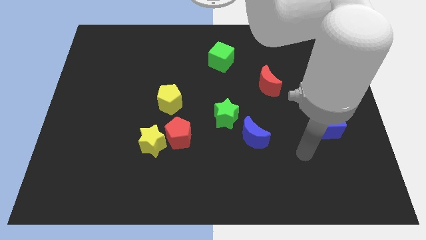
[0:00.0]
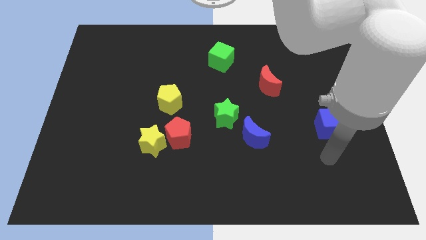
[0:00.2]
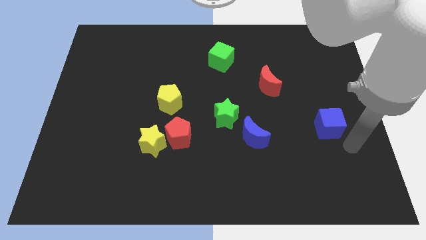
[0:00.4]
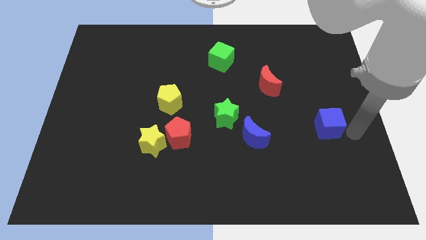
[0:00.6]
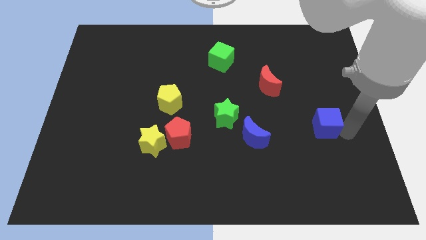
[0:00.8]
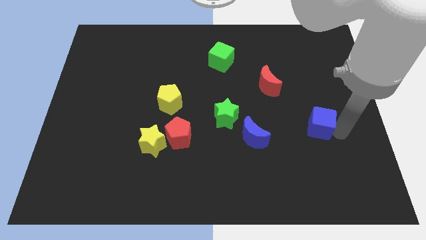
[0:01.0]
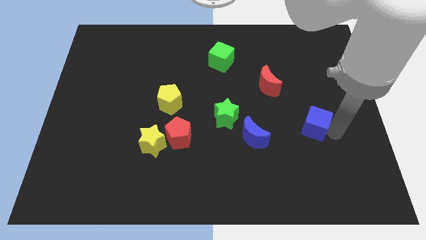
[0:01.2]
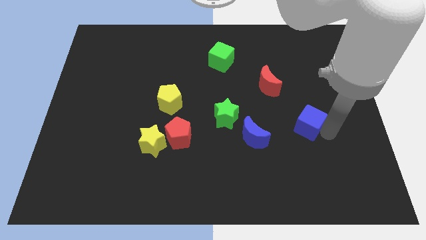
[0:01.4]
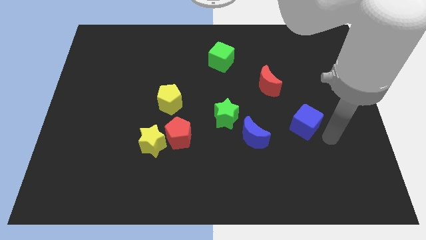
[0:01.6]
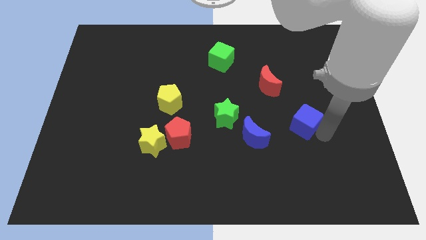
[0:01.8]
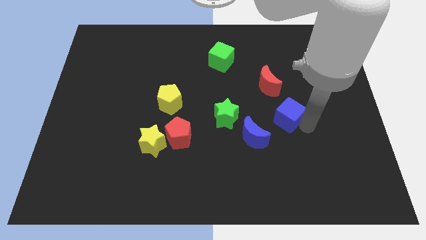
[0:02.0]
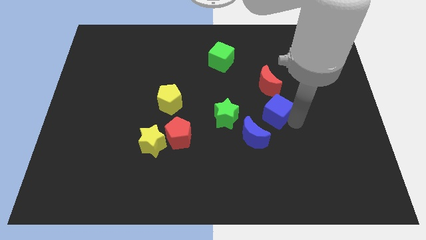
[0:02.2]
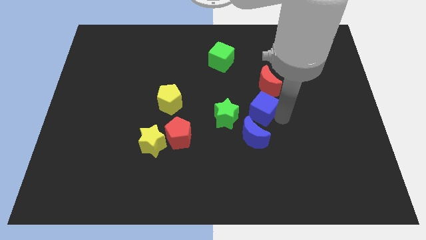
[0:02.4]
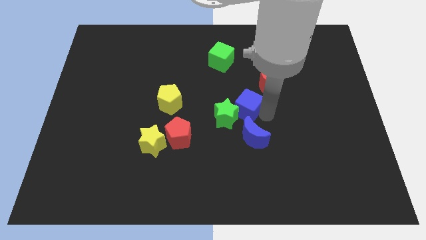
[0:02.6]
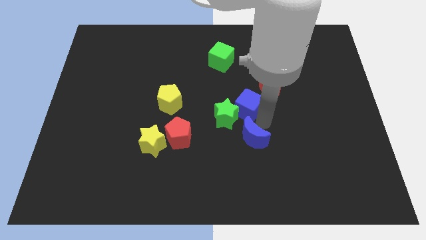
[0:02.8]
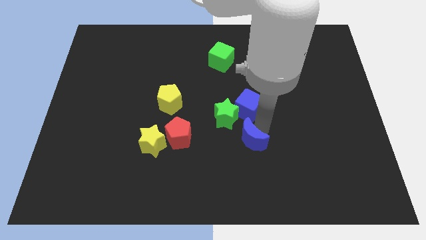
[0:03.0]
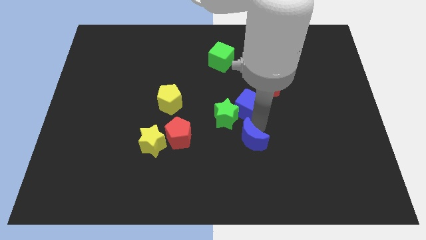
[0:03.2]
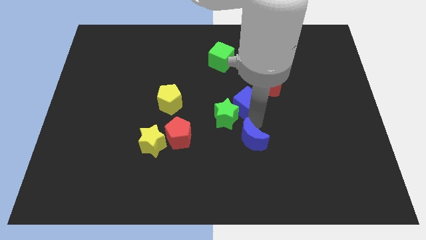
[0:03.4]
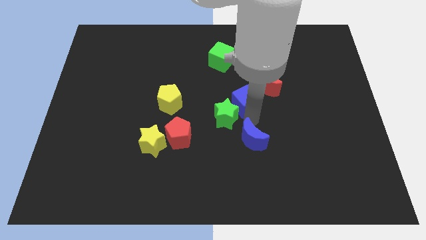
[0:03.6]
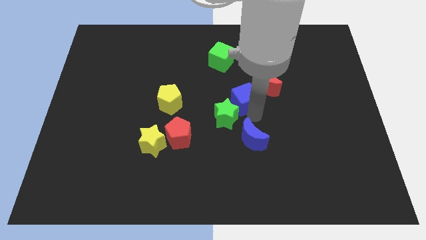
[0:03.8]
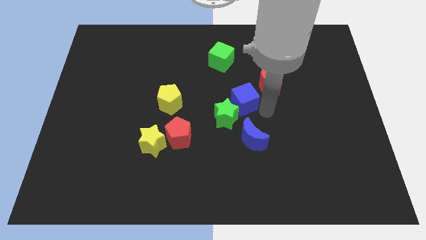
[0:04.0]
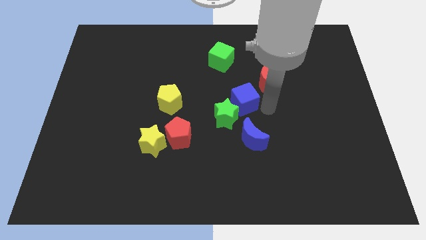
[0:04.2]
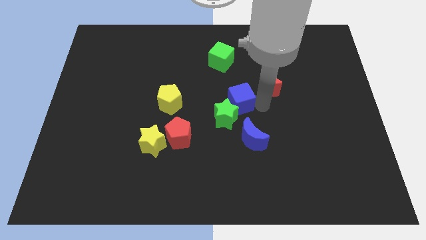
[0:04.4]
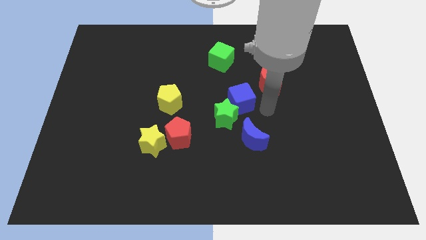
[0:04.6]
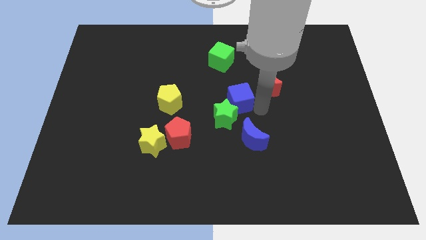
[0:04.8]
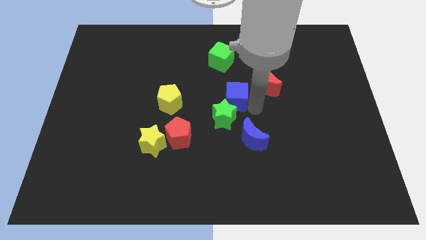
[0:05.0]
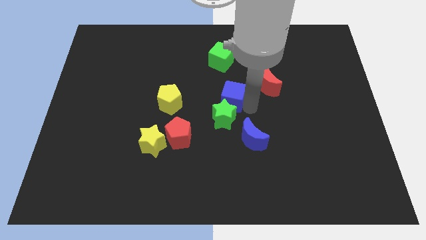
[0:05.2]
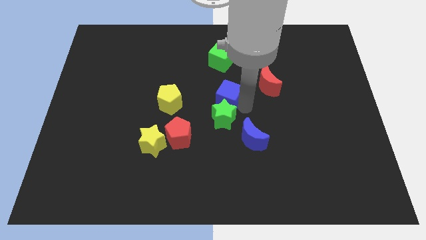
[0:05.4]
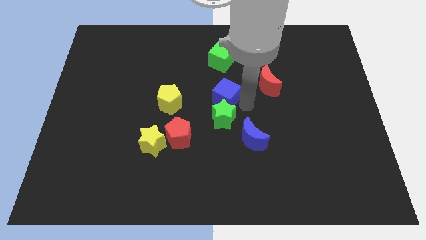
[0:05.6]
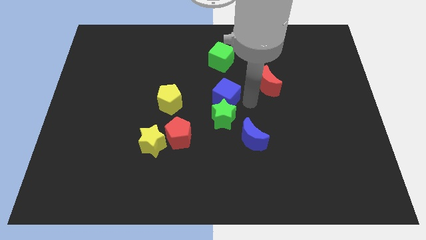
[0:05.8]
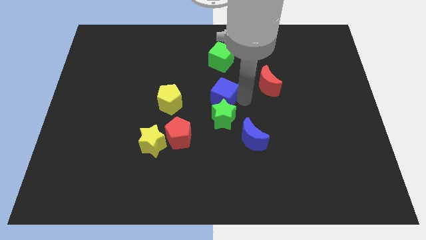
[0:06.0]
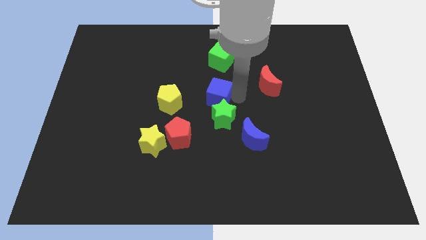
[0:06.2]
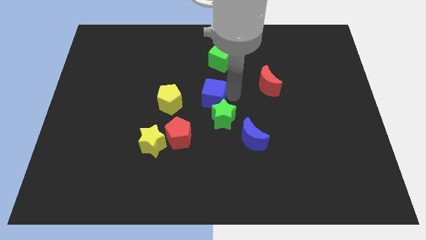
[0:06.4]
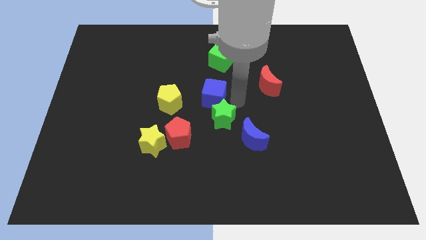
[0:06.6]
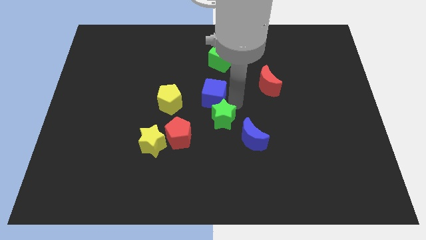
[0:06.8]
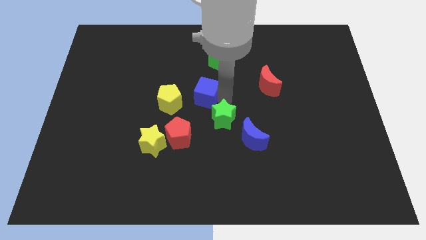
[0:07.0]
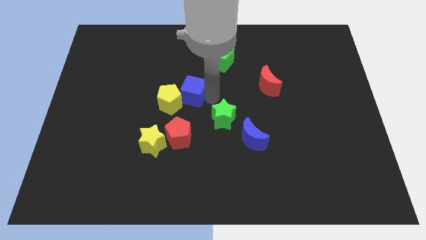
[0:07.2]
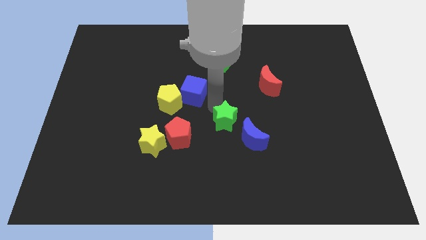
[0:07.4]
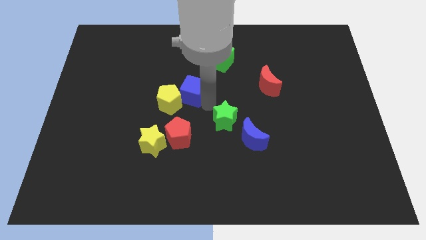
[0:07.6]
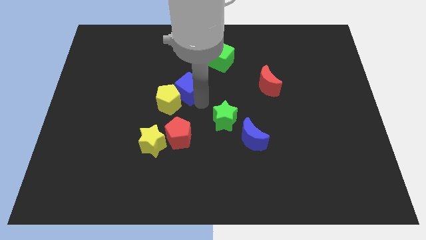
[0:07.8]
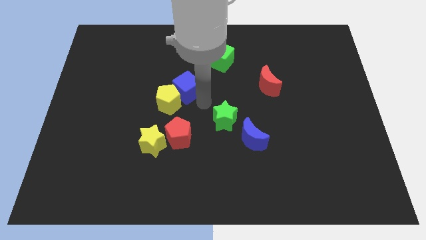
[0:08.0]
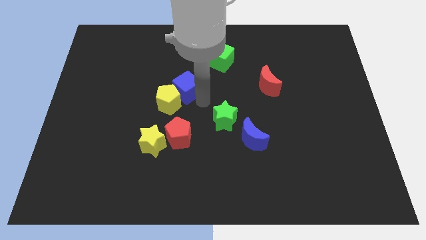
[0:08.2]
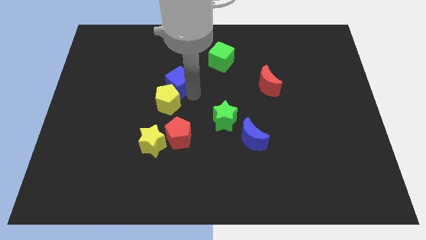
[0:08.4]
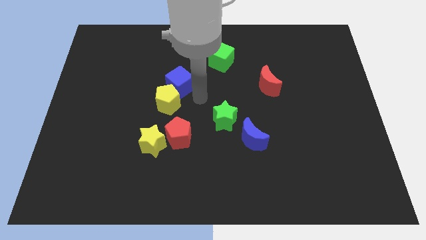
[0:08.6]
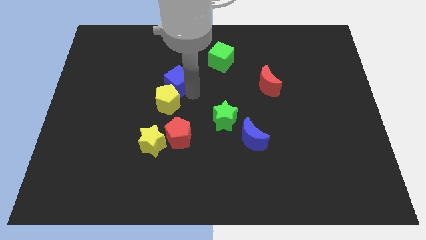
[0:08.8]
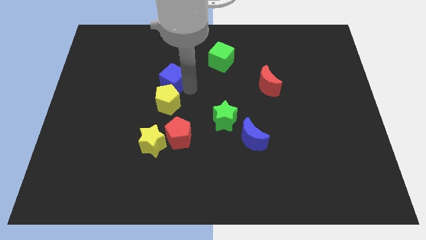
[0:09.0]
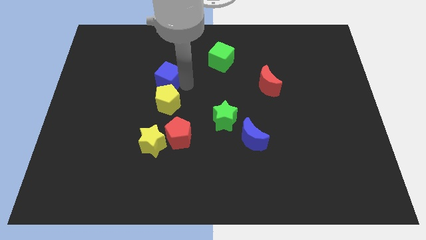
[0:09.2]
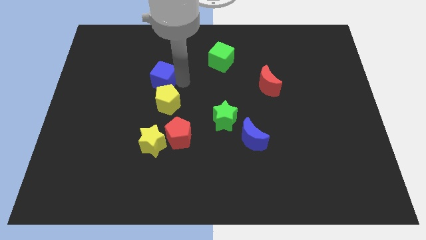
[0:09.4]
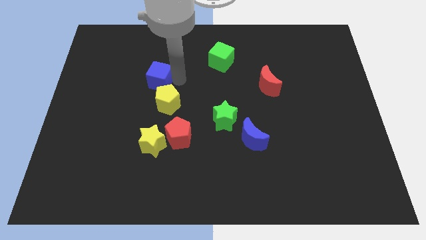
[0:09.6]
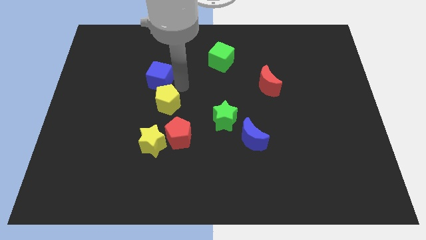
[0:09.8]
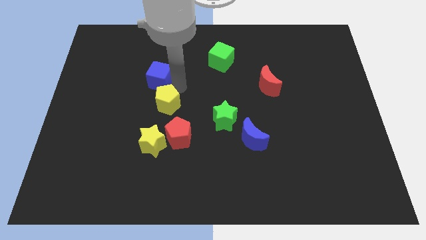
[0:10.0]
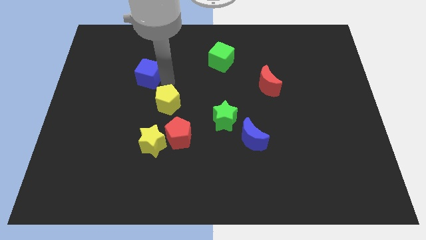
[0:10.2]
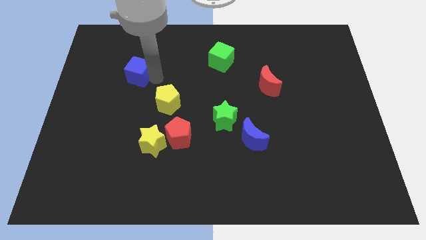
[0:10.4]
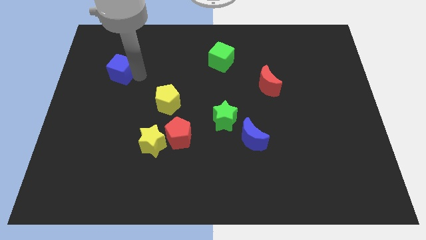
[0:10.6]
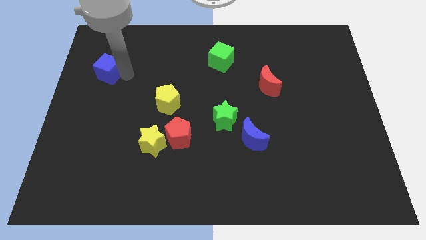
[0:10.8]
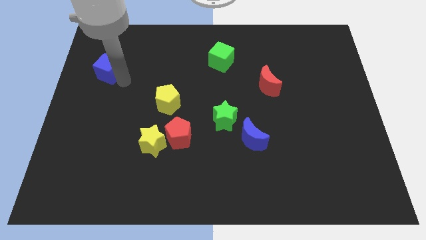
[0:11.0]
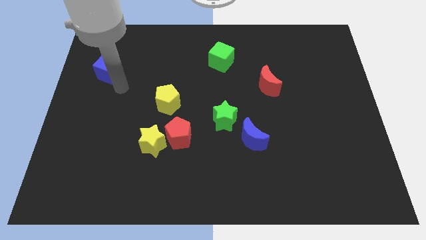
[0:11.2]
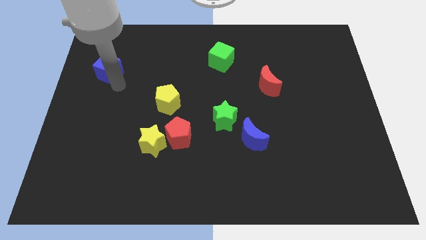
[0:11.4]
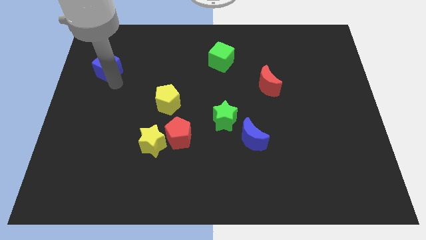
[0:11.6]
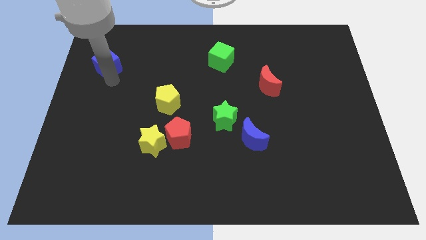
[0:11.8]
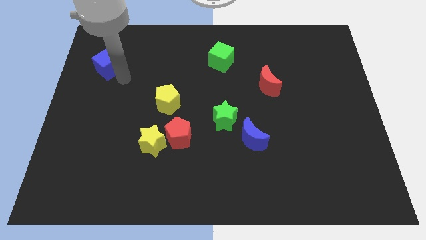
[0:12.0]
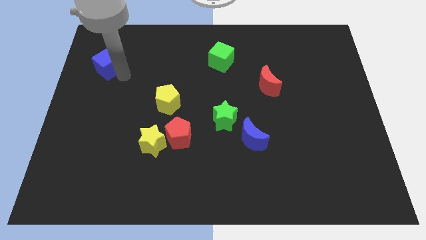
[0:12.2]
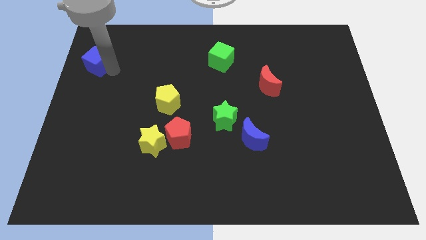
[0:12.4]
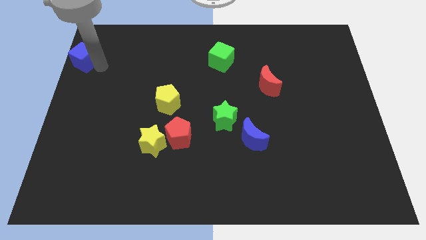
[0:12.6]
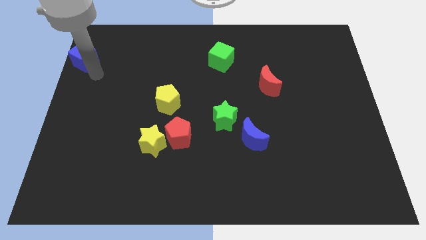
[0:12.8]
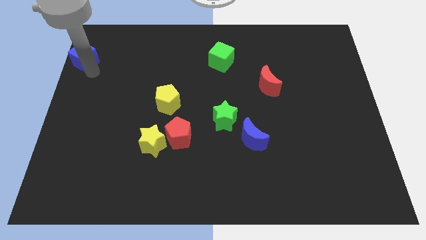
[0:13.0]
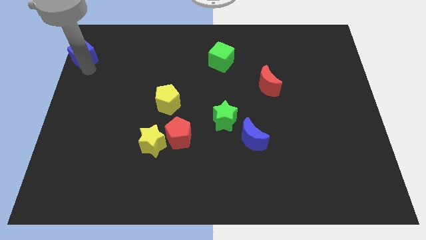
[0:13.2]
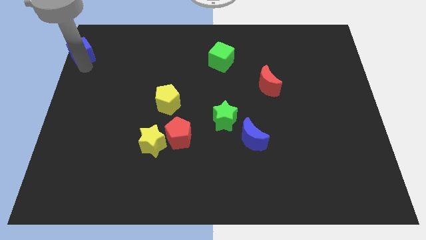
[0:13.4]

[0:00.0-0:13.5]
push the blue cube to the top left of the board
